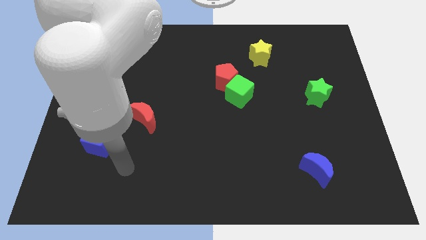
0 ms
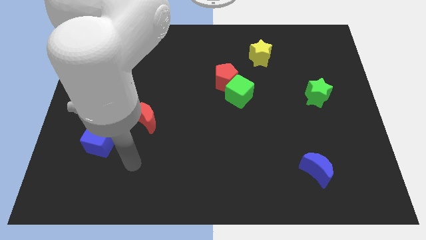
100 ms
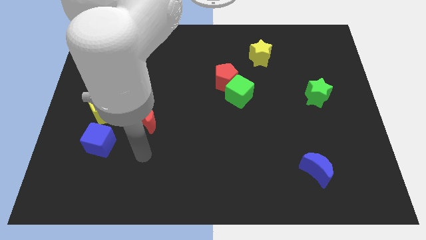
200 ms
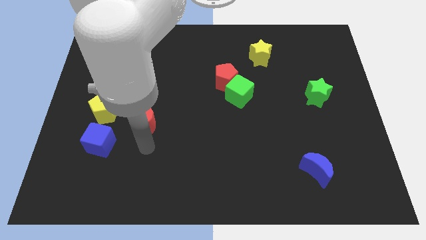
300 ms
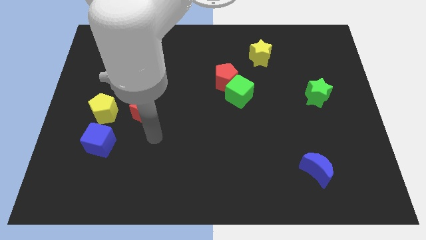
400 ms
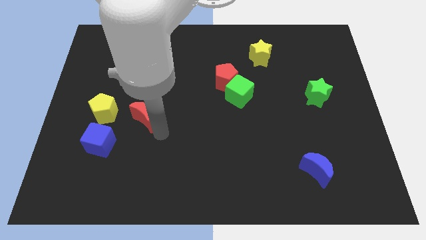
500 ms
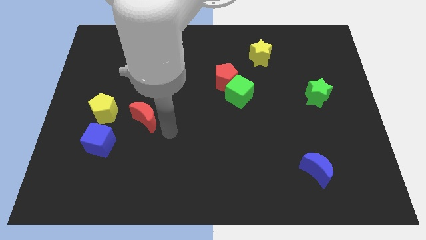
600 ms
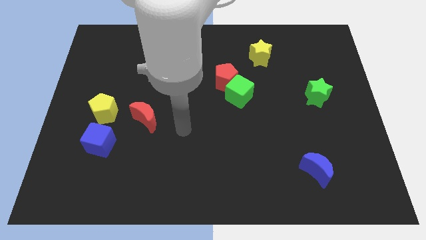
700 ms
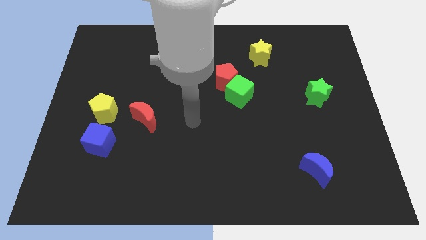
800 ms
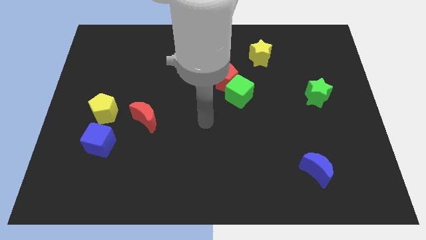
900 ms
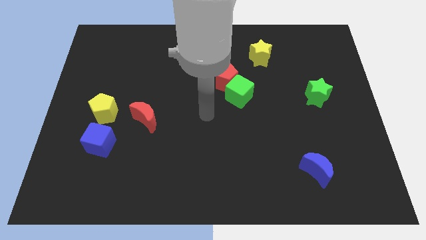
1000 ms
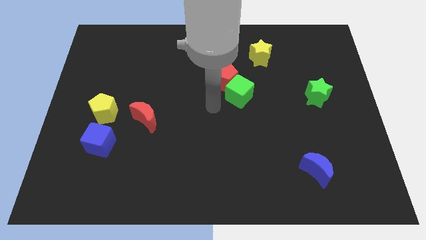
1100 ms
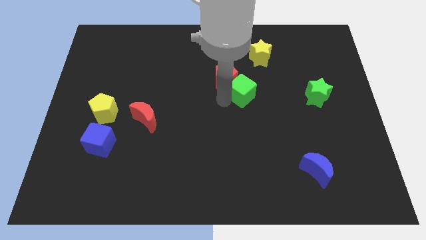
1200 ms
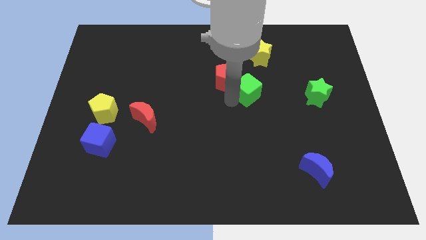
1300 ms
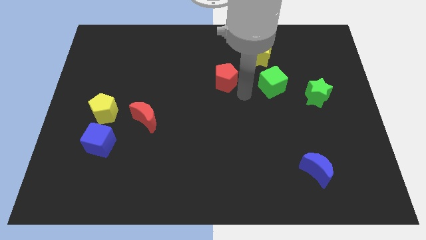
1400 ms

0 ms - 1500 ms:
pull the red pentagon apart from the green cube

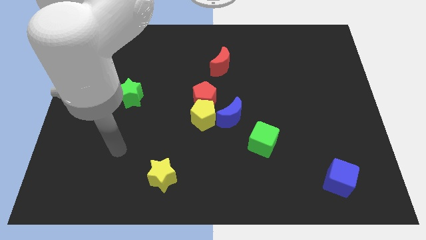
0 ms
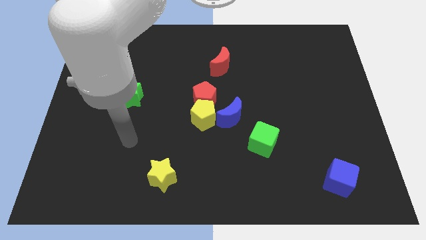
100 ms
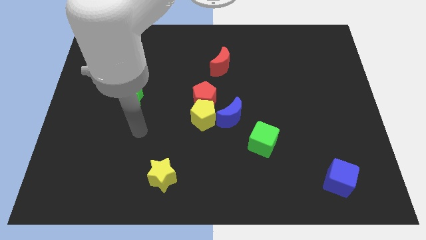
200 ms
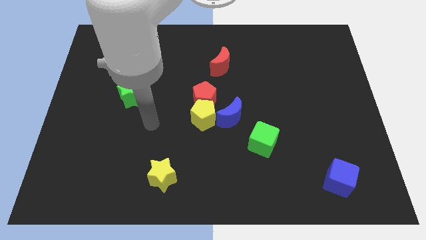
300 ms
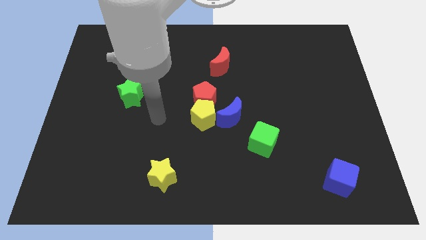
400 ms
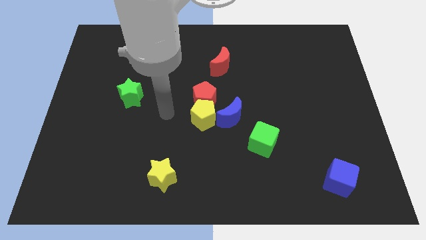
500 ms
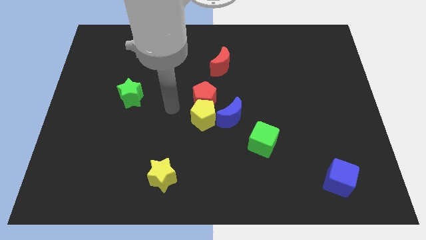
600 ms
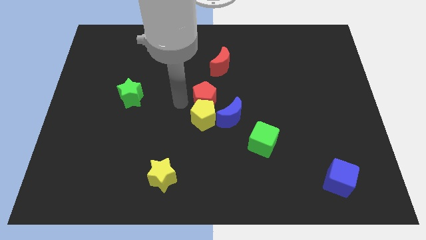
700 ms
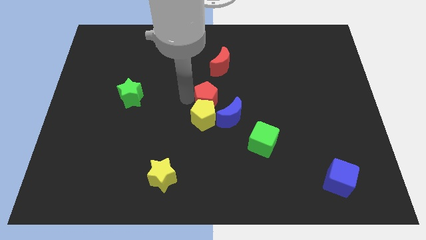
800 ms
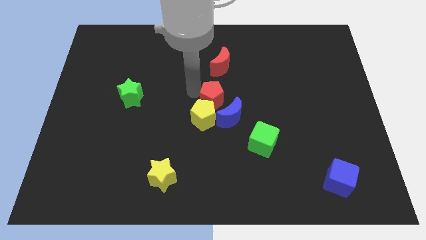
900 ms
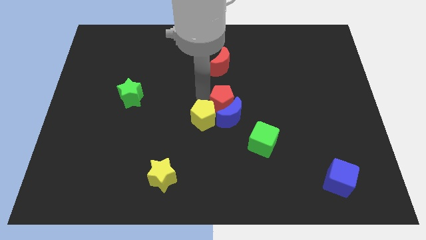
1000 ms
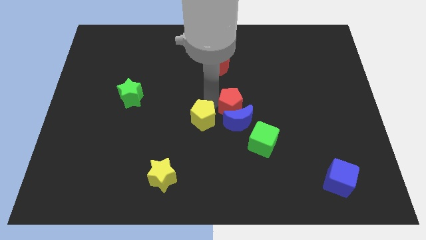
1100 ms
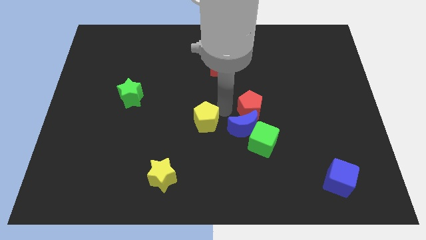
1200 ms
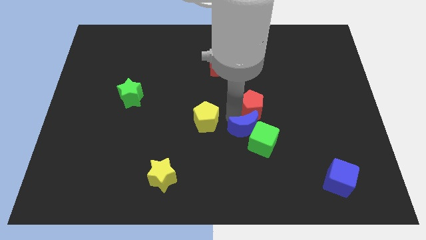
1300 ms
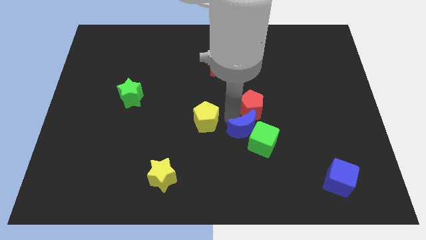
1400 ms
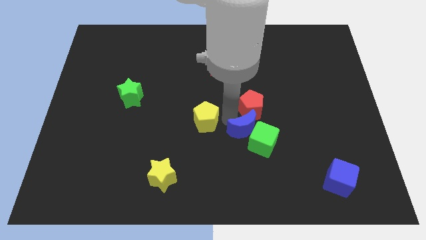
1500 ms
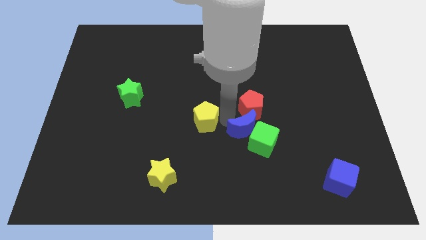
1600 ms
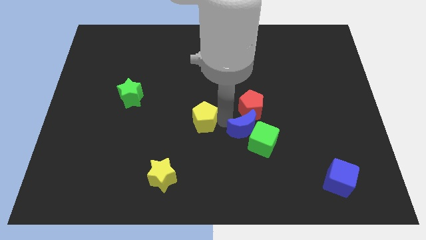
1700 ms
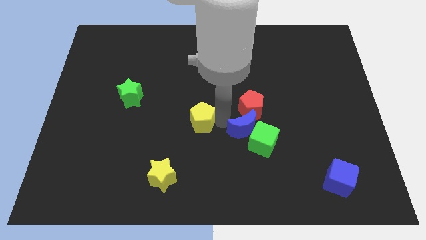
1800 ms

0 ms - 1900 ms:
move the yellow pentagon away from the red pentagon and blue moon

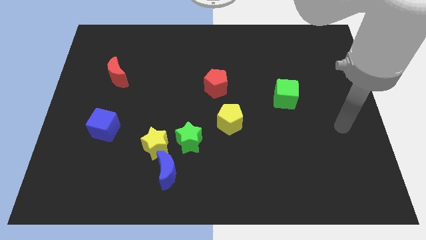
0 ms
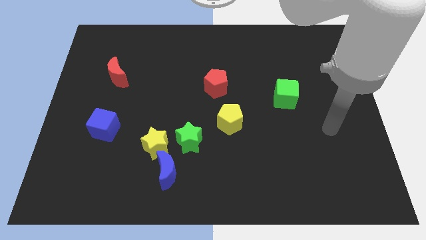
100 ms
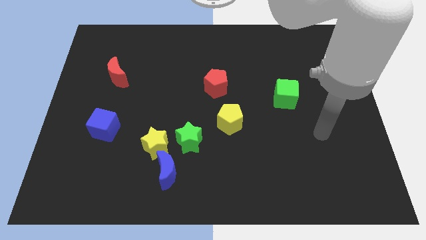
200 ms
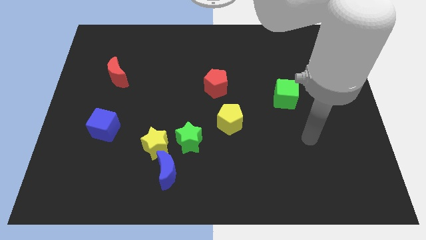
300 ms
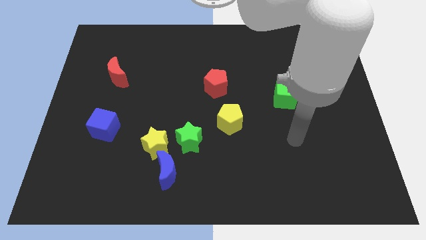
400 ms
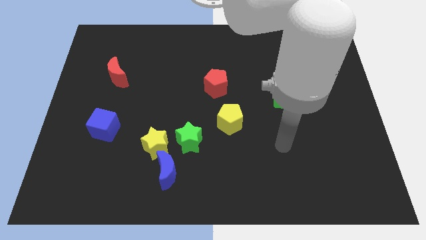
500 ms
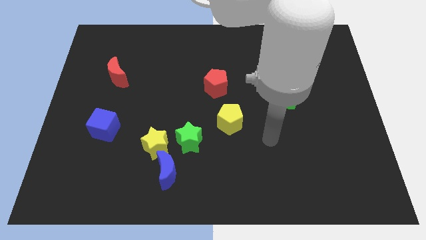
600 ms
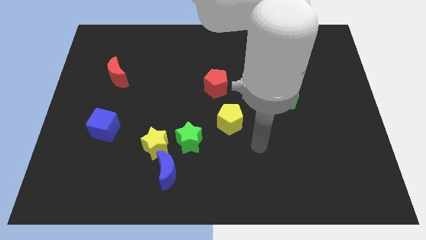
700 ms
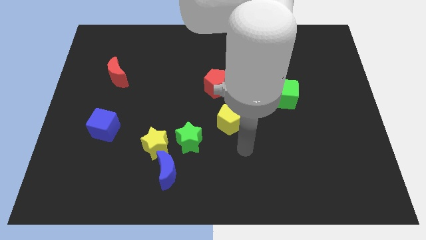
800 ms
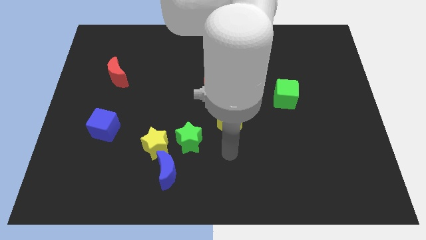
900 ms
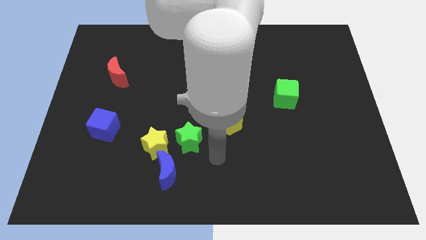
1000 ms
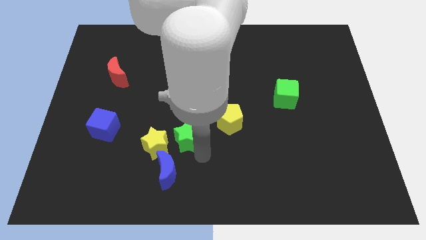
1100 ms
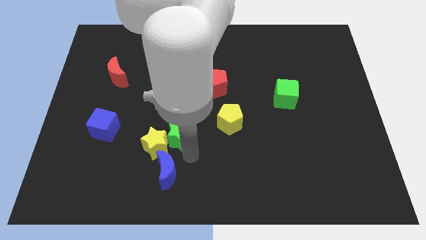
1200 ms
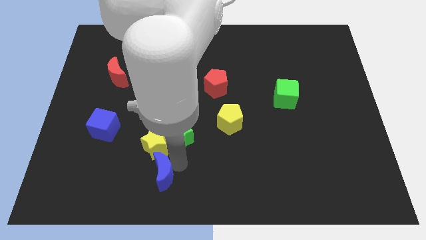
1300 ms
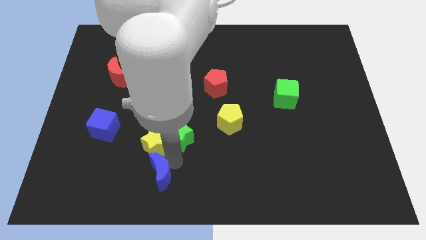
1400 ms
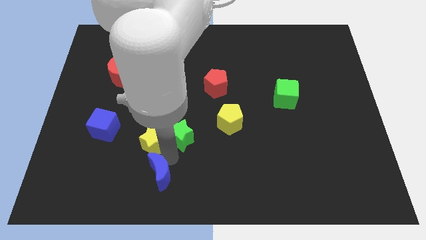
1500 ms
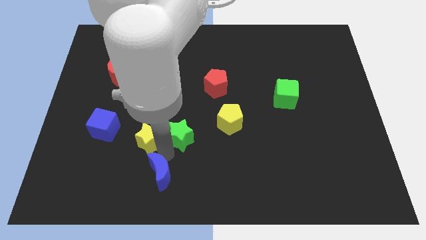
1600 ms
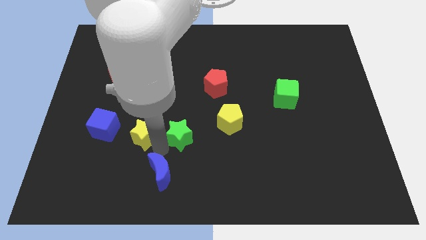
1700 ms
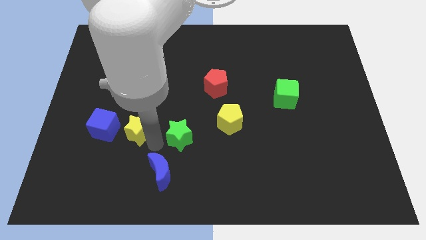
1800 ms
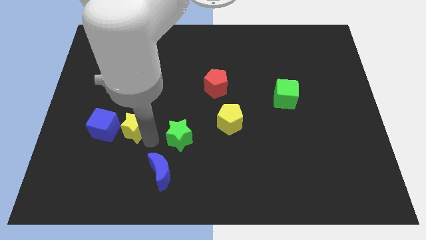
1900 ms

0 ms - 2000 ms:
separate the yellow star from the green star and blue moon

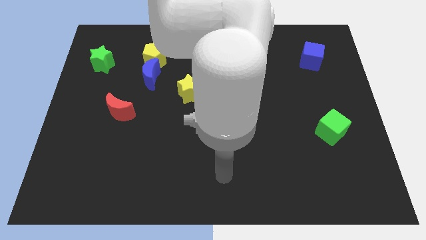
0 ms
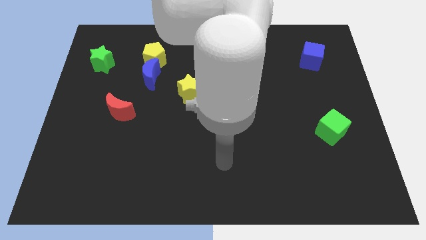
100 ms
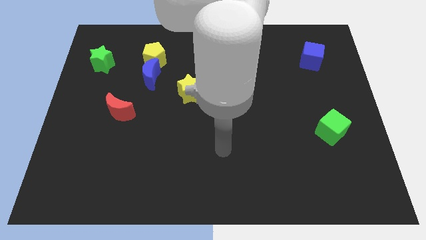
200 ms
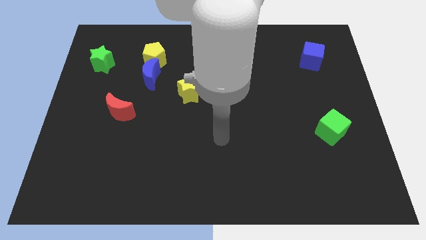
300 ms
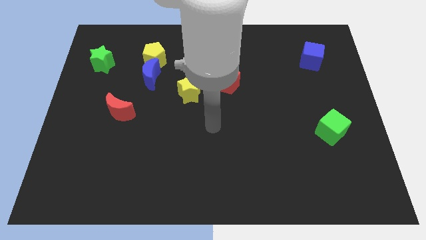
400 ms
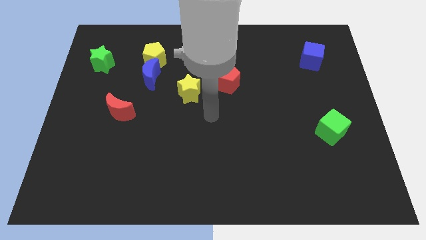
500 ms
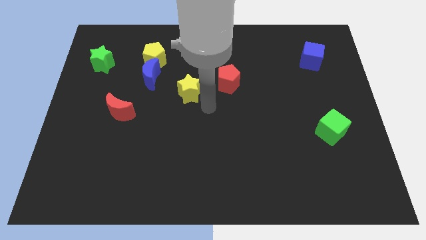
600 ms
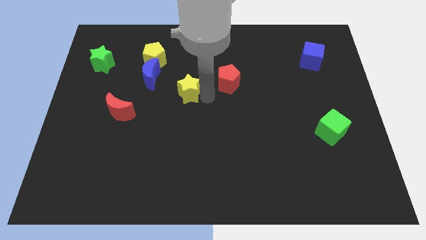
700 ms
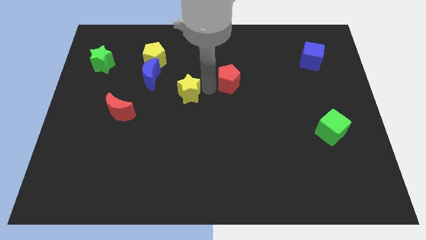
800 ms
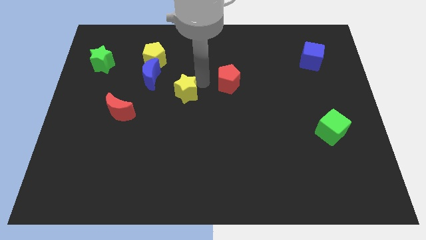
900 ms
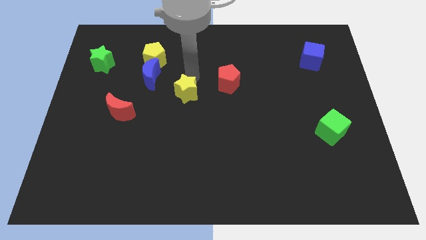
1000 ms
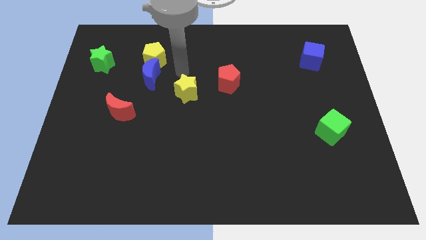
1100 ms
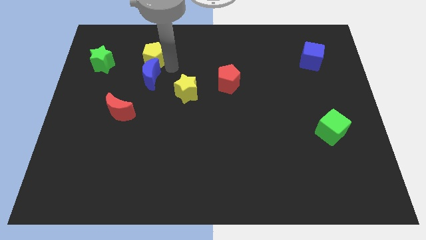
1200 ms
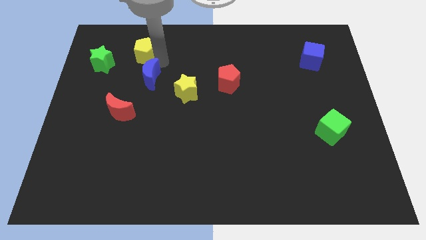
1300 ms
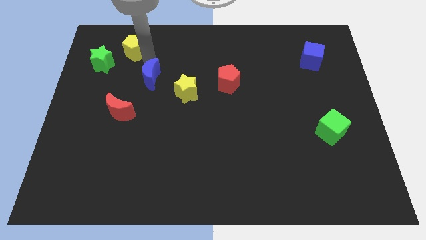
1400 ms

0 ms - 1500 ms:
separate the blue moon from the yellow pentagon

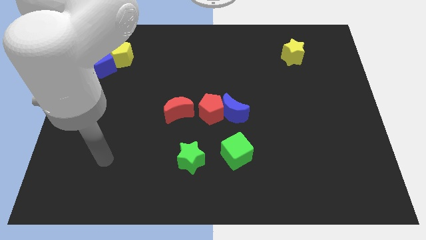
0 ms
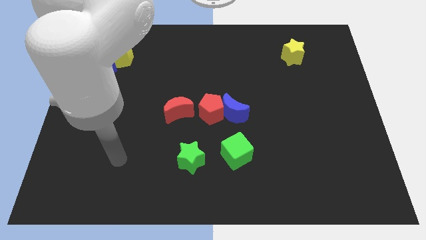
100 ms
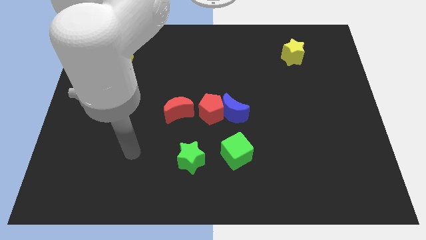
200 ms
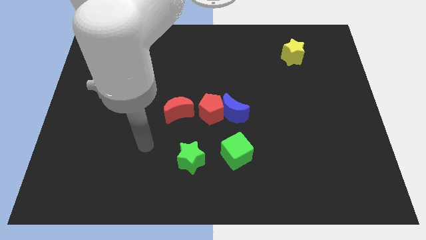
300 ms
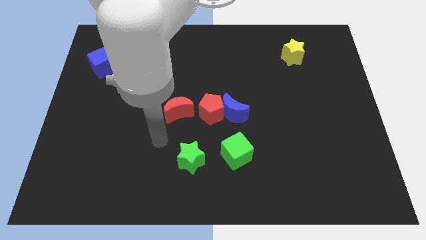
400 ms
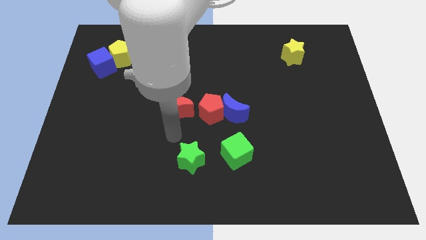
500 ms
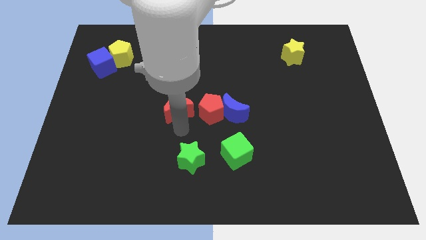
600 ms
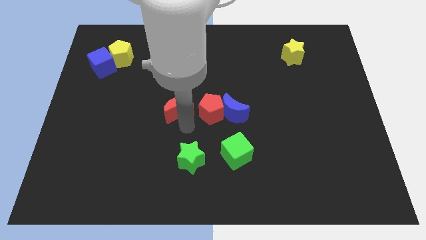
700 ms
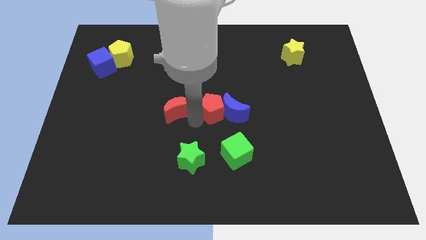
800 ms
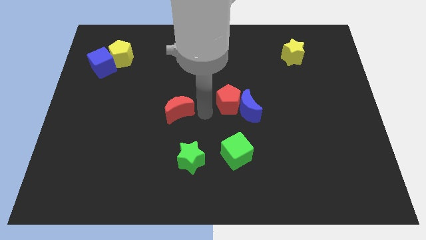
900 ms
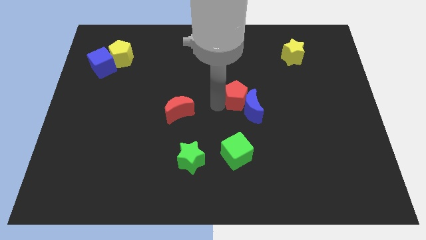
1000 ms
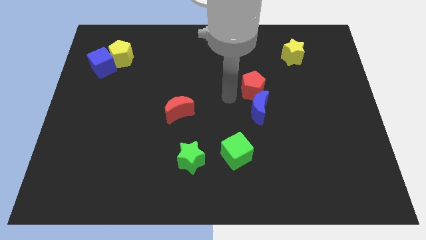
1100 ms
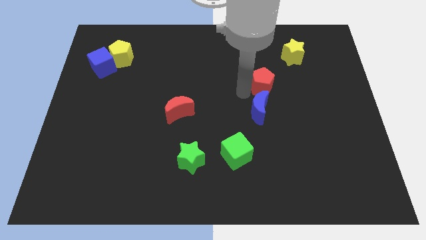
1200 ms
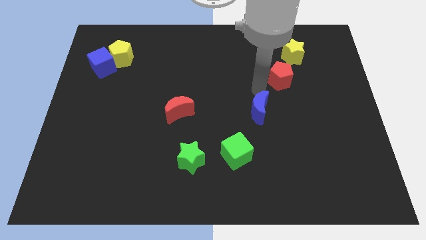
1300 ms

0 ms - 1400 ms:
separate the blue moon from the red pentagon

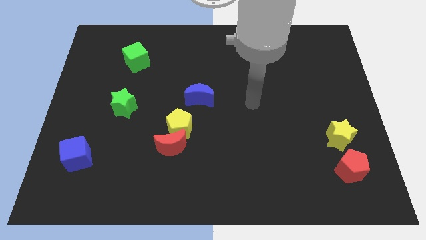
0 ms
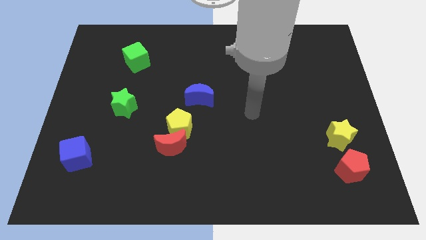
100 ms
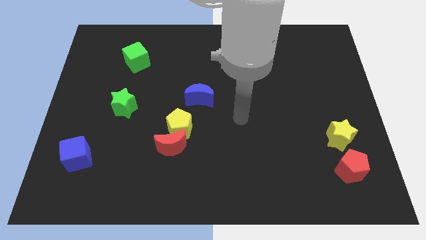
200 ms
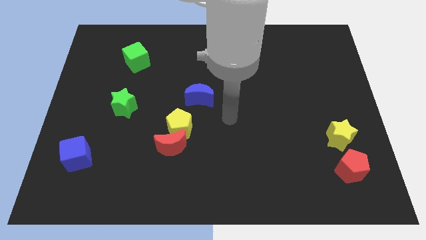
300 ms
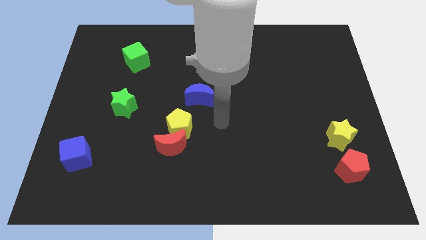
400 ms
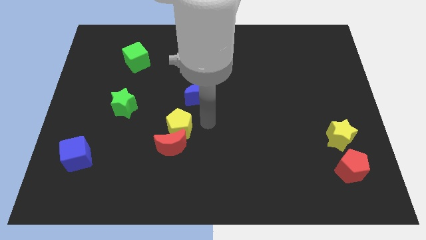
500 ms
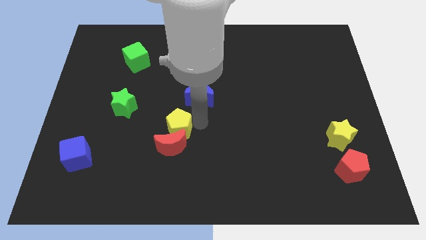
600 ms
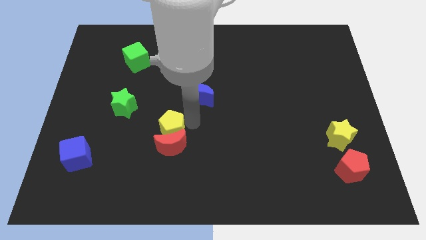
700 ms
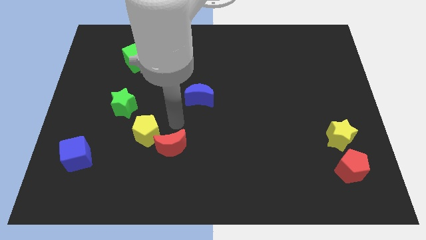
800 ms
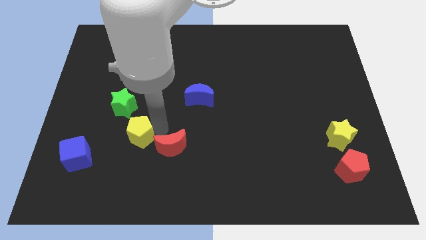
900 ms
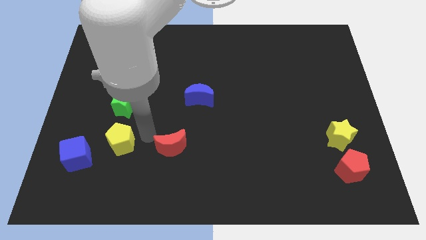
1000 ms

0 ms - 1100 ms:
separate the red moon from the yellow pentagon
